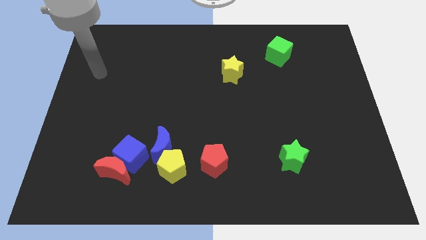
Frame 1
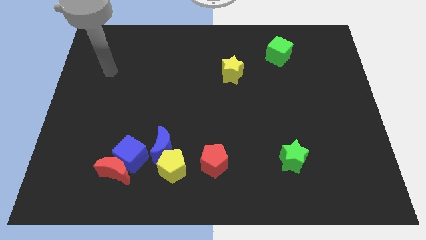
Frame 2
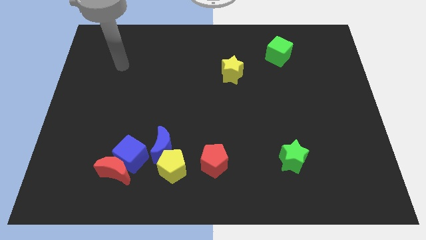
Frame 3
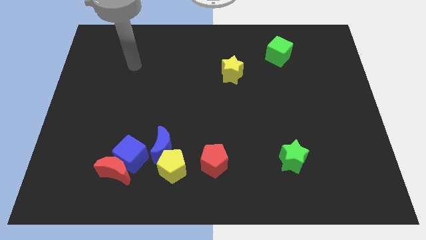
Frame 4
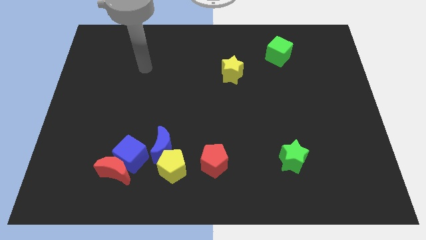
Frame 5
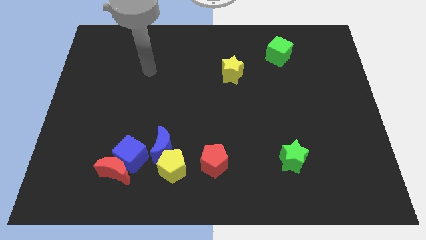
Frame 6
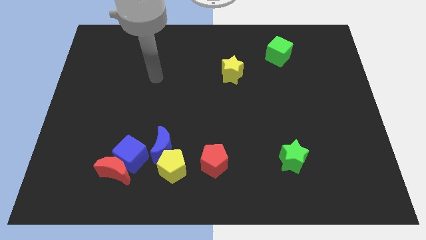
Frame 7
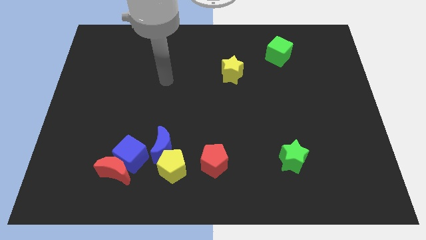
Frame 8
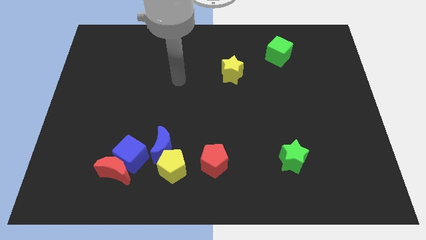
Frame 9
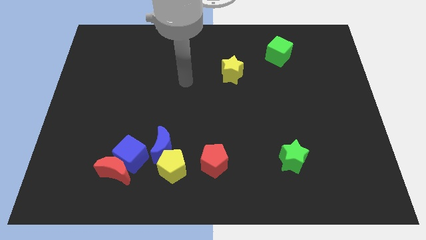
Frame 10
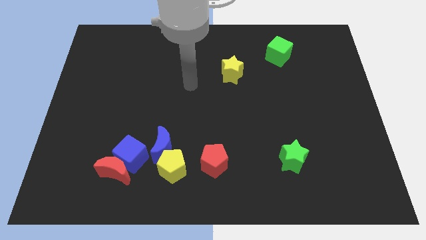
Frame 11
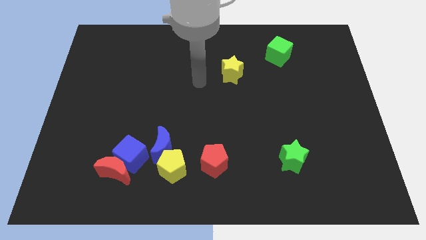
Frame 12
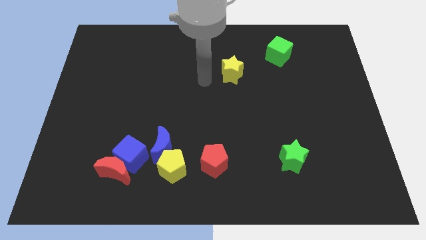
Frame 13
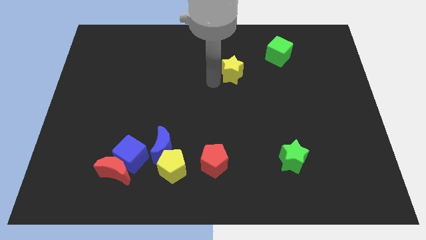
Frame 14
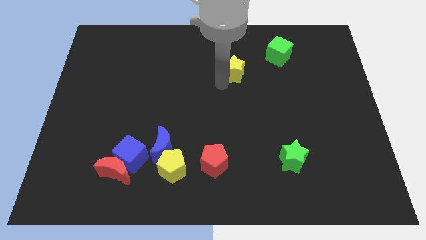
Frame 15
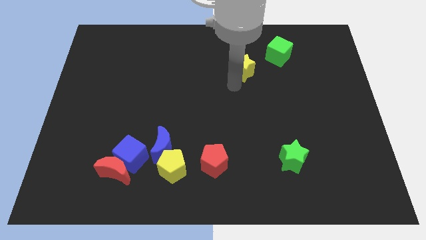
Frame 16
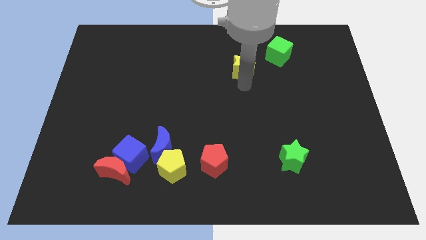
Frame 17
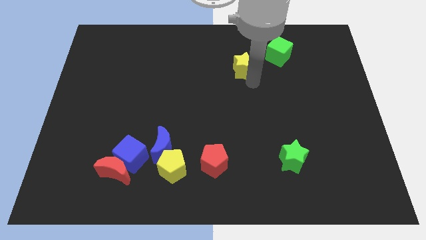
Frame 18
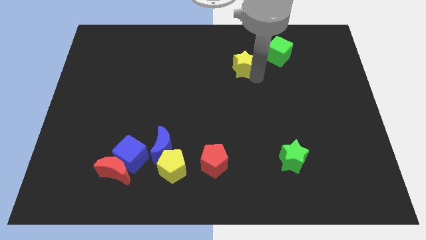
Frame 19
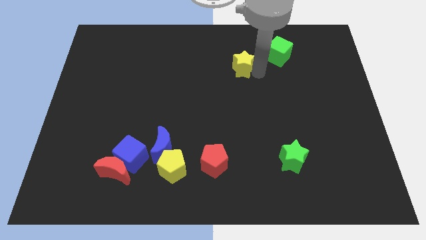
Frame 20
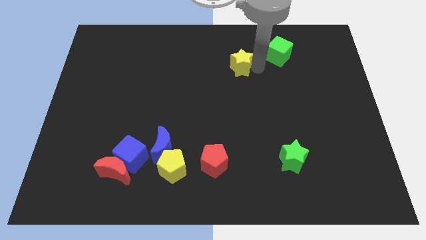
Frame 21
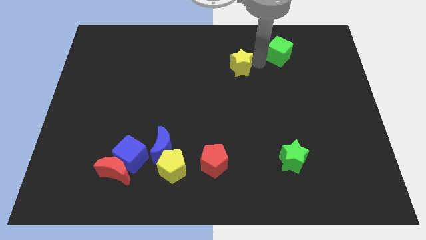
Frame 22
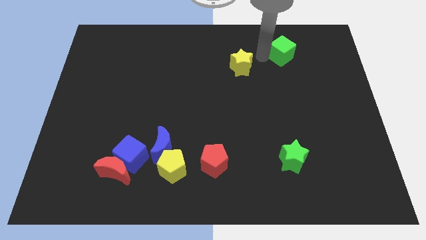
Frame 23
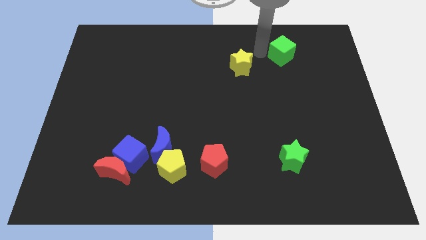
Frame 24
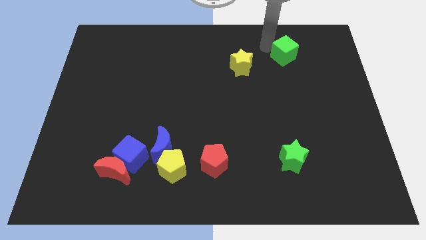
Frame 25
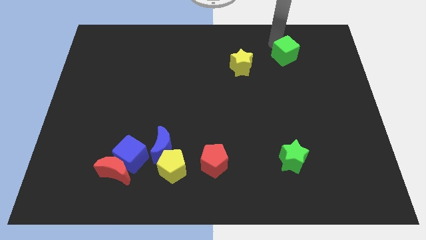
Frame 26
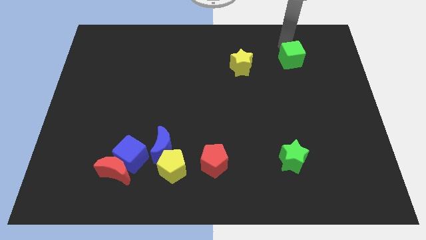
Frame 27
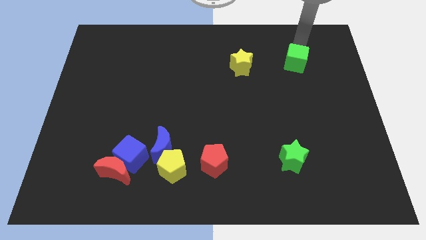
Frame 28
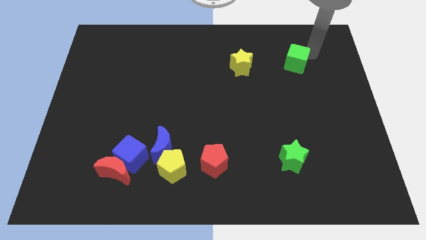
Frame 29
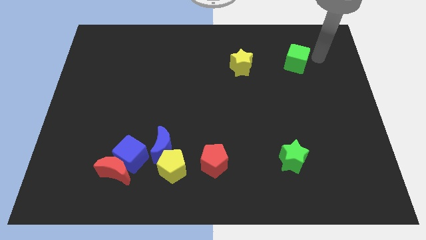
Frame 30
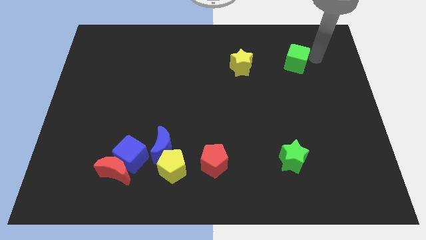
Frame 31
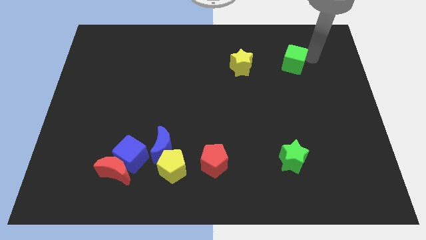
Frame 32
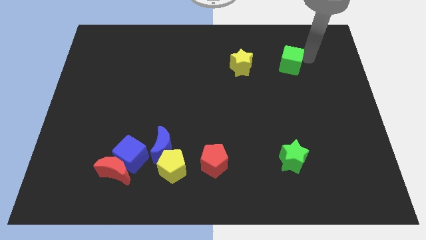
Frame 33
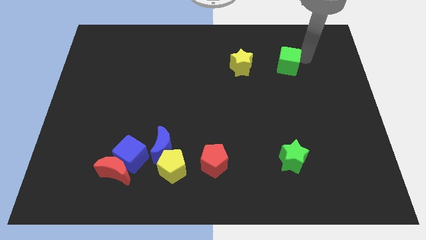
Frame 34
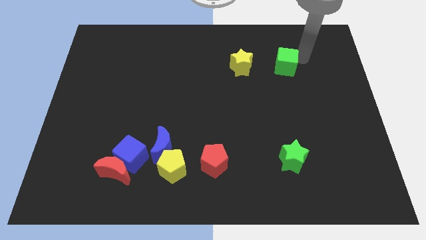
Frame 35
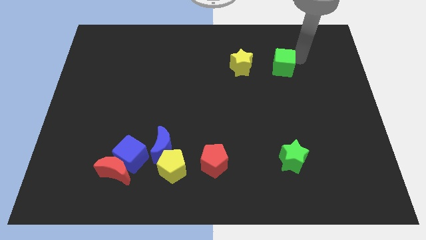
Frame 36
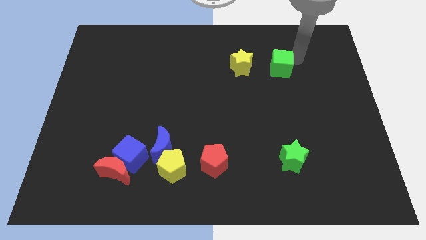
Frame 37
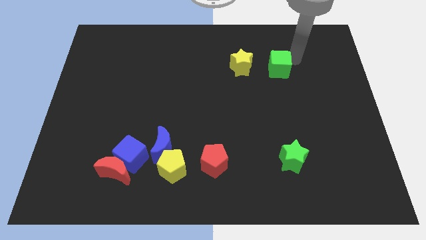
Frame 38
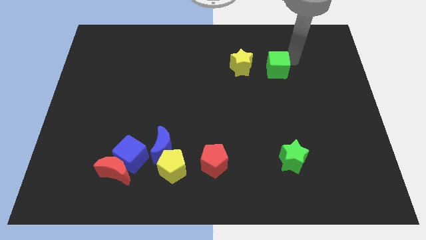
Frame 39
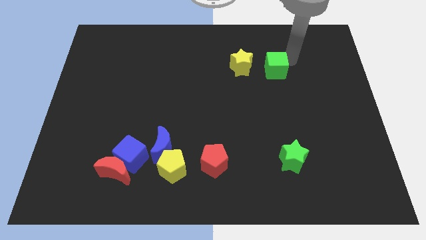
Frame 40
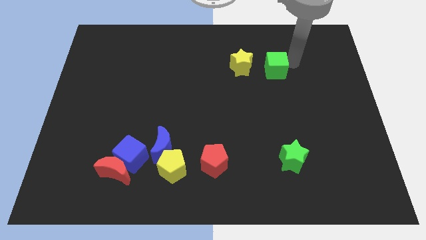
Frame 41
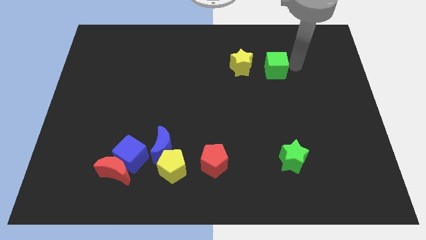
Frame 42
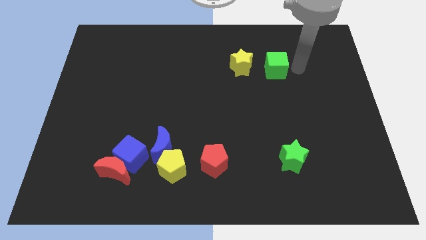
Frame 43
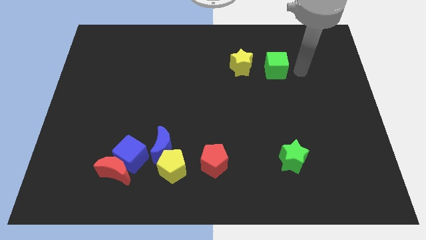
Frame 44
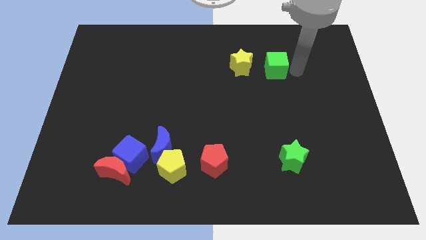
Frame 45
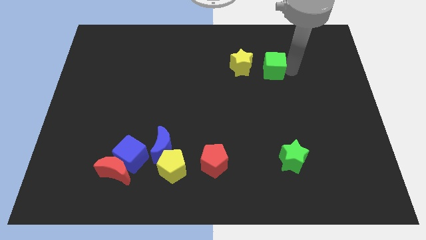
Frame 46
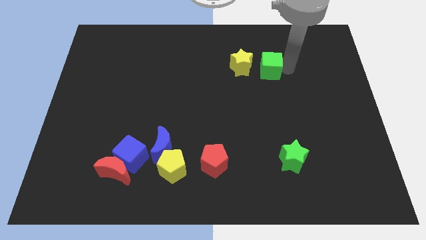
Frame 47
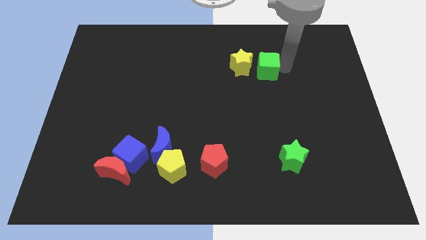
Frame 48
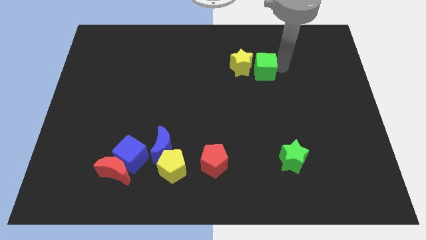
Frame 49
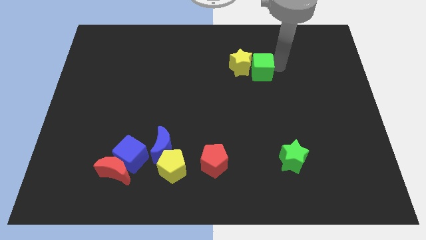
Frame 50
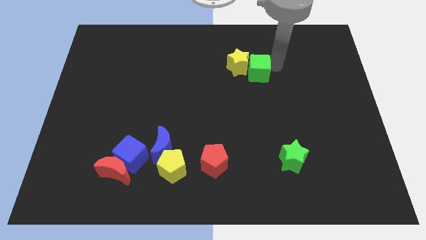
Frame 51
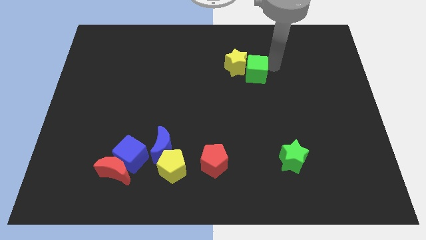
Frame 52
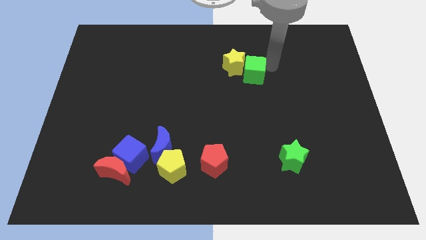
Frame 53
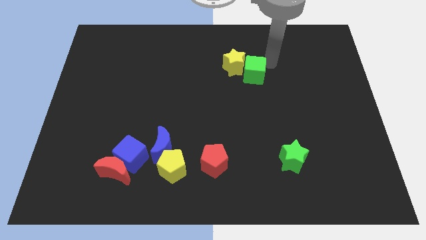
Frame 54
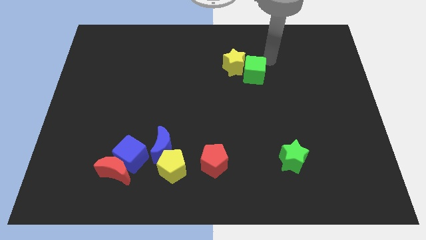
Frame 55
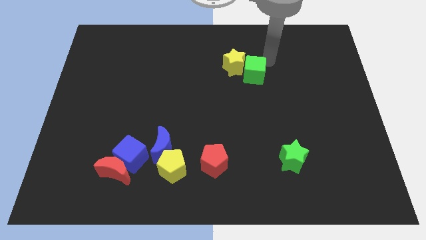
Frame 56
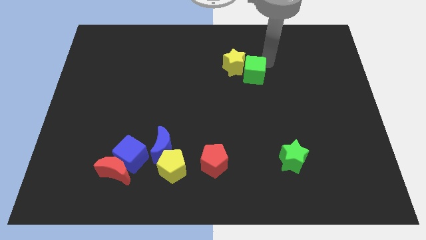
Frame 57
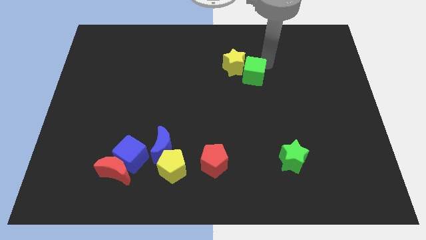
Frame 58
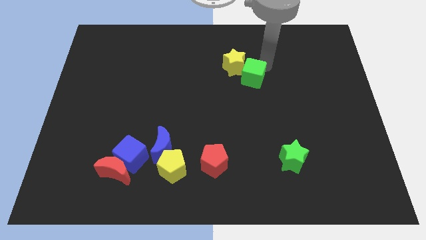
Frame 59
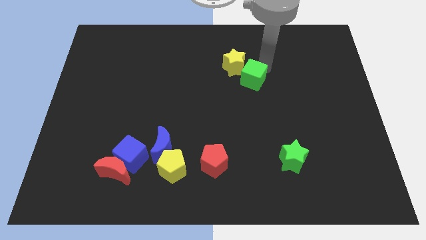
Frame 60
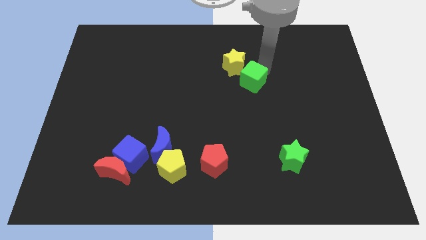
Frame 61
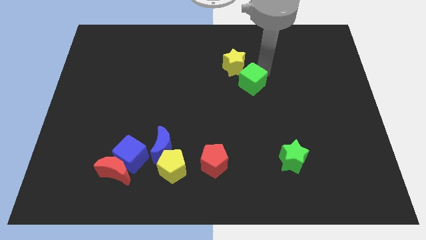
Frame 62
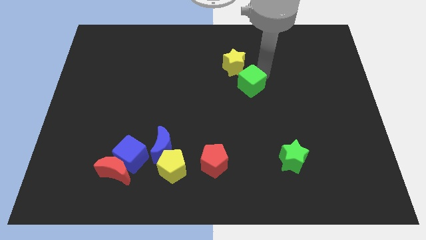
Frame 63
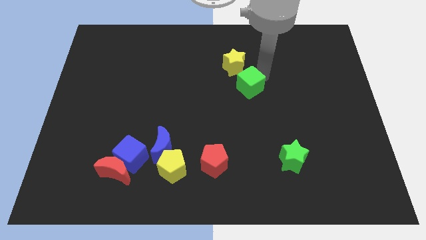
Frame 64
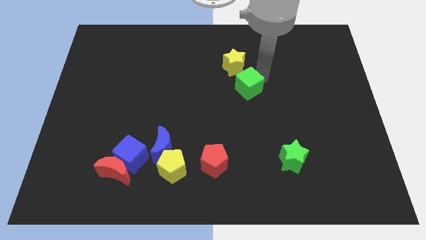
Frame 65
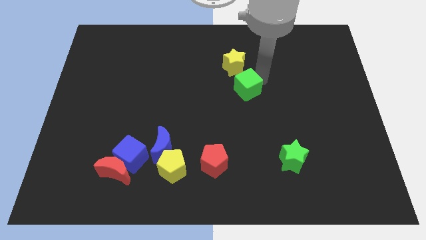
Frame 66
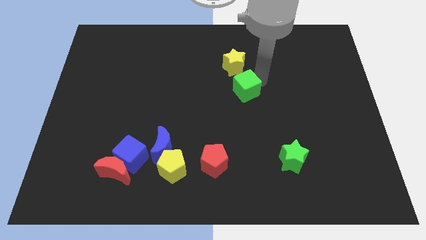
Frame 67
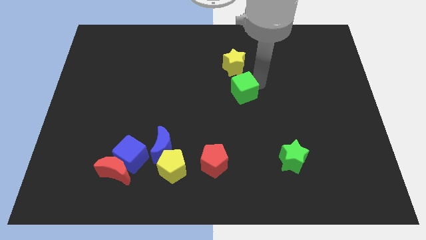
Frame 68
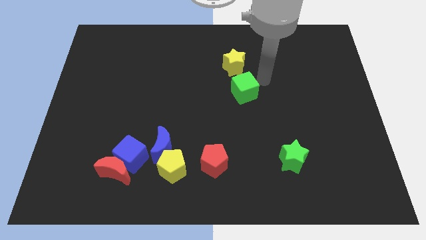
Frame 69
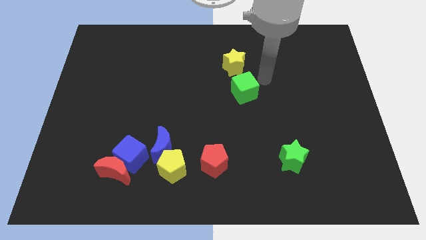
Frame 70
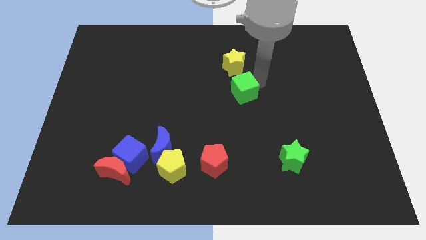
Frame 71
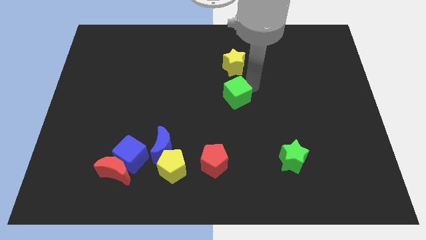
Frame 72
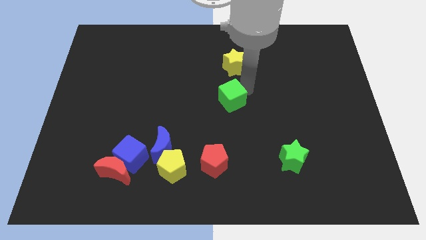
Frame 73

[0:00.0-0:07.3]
move the green cube diagonally down and to the left

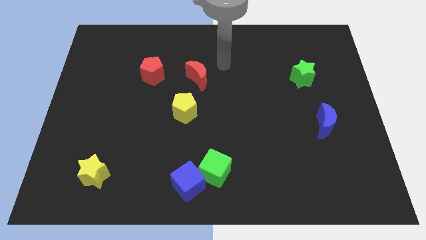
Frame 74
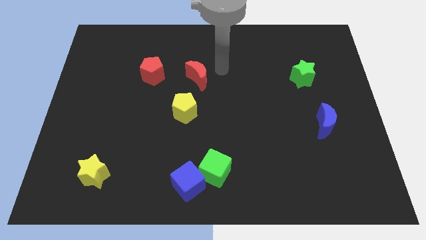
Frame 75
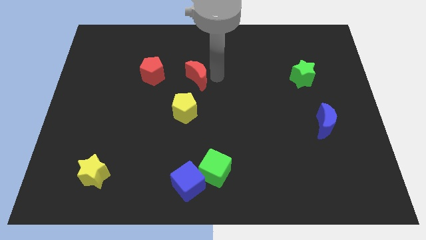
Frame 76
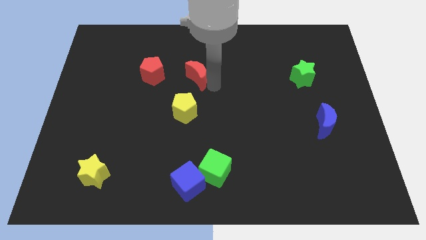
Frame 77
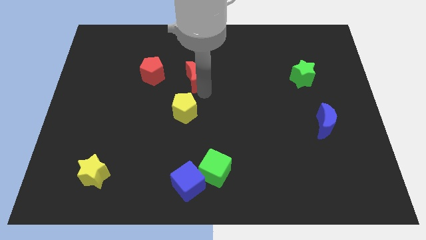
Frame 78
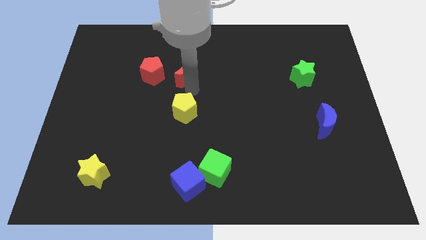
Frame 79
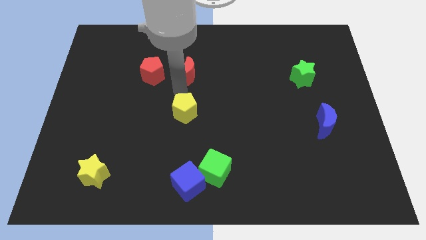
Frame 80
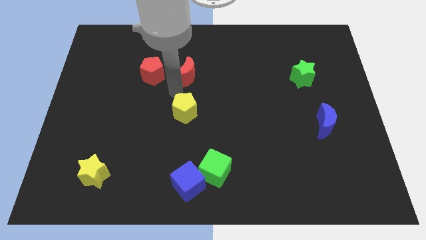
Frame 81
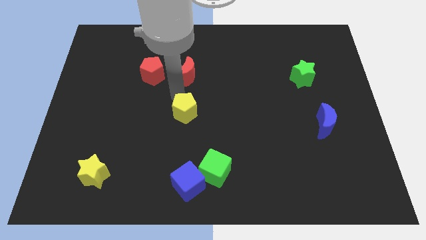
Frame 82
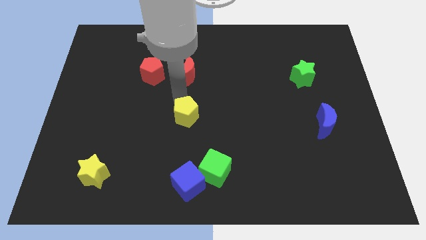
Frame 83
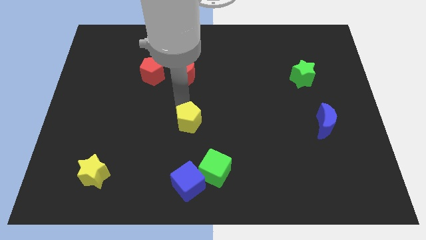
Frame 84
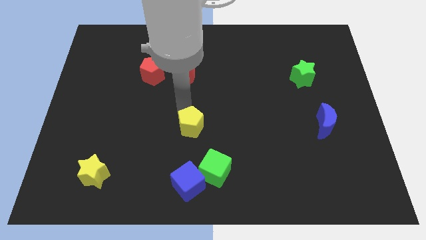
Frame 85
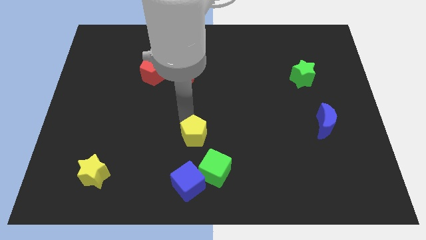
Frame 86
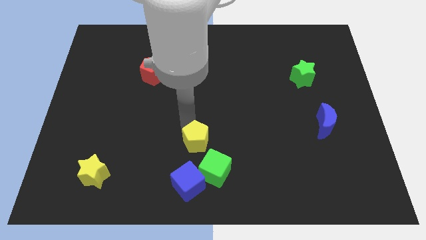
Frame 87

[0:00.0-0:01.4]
slide the yellow pentagon down and right diagonally a little bit
